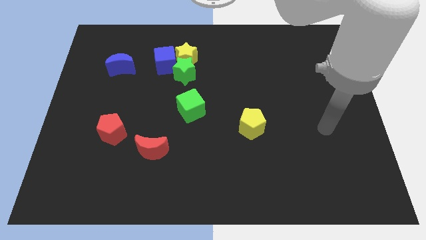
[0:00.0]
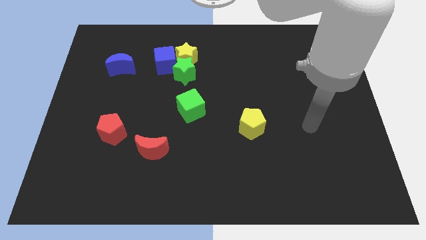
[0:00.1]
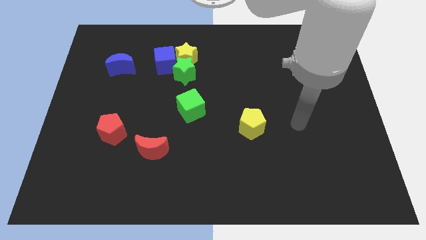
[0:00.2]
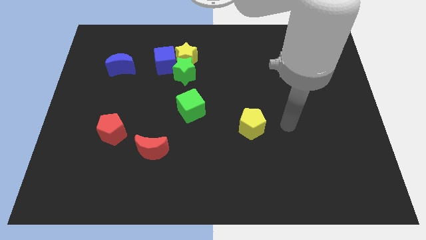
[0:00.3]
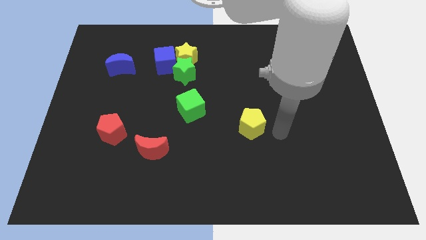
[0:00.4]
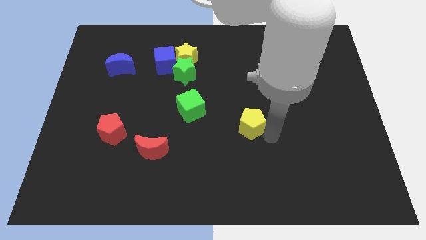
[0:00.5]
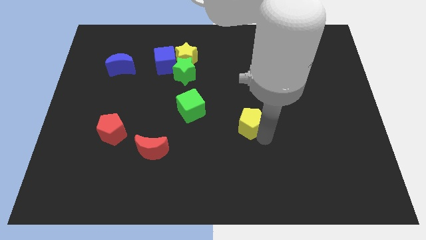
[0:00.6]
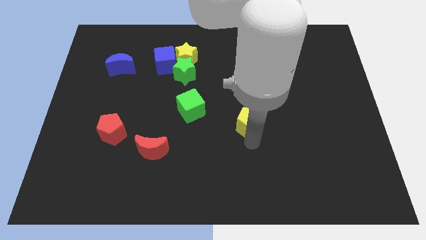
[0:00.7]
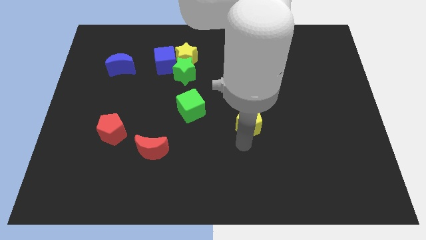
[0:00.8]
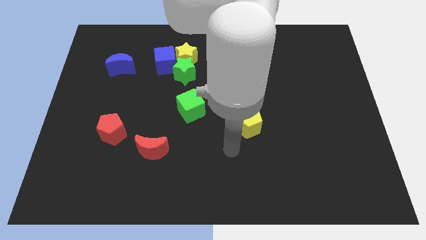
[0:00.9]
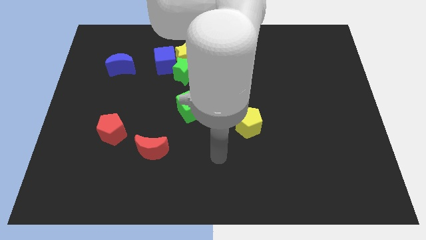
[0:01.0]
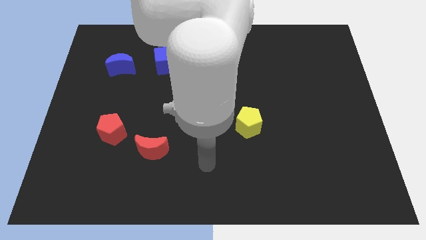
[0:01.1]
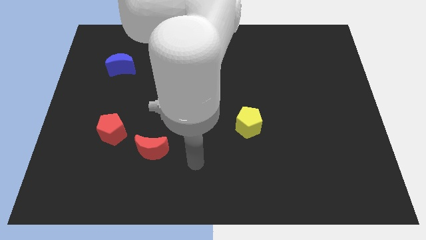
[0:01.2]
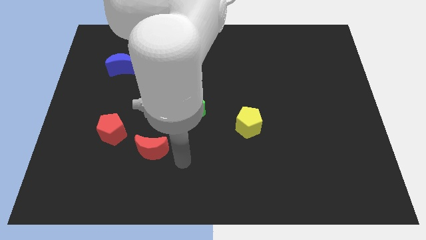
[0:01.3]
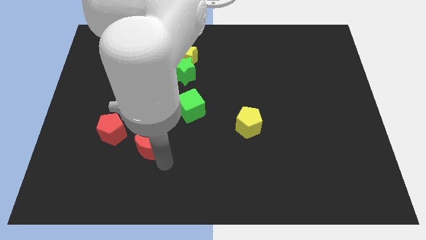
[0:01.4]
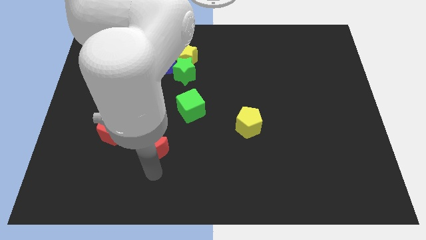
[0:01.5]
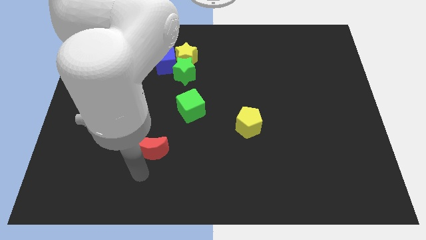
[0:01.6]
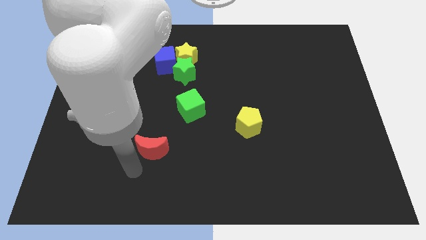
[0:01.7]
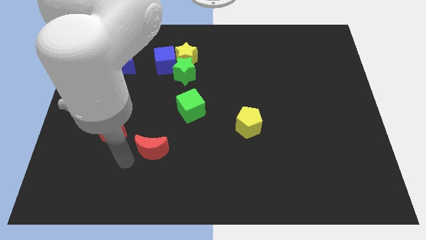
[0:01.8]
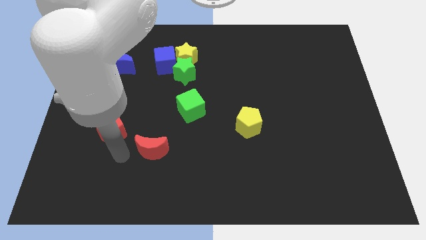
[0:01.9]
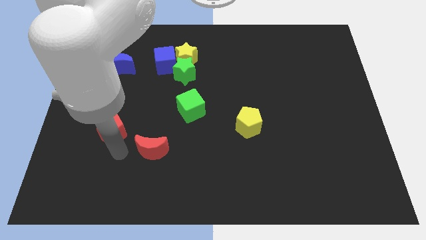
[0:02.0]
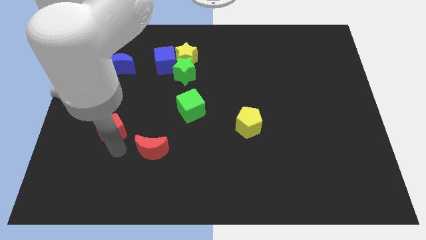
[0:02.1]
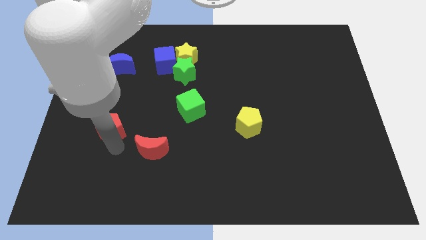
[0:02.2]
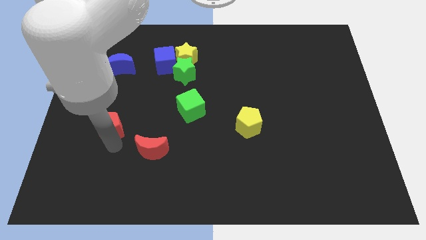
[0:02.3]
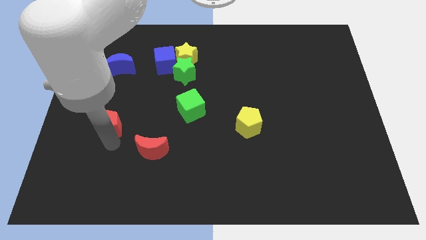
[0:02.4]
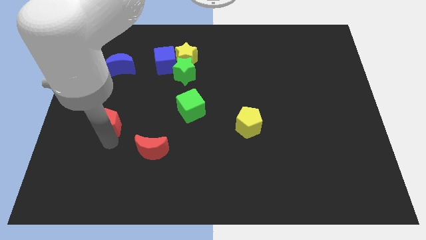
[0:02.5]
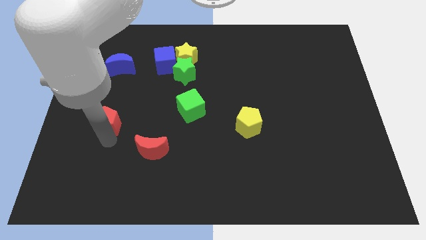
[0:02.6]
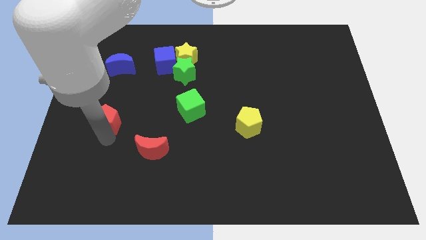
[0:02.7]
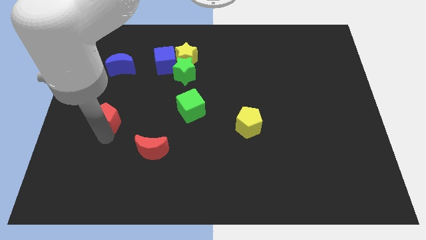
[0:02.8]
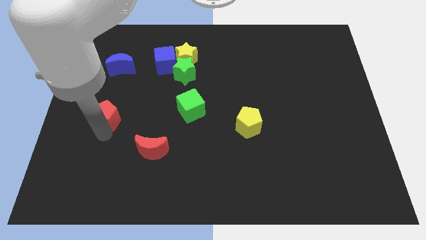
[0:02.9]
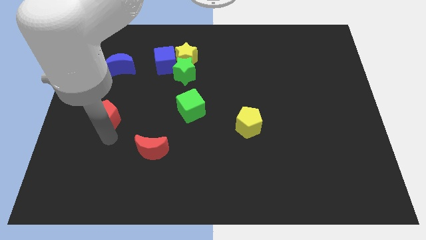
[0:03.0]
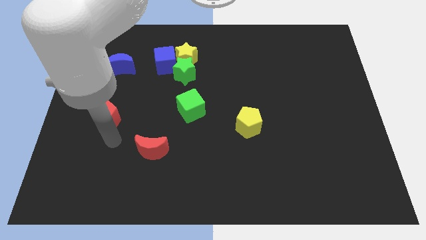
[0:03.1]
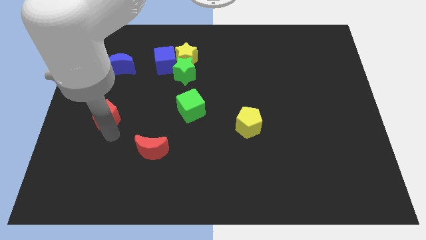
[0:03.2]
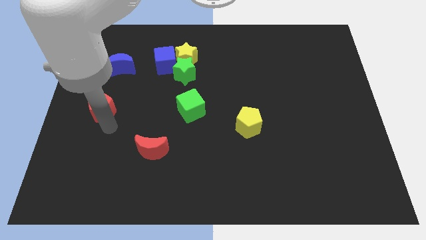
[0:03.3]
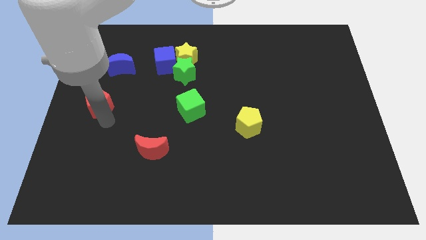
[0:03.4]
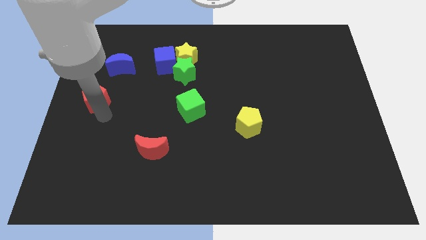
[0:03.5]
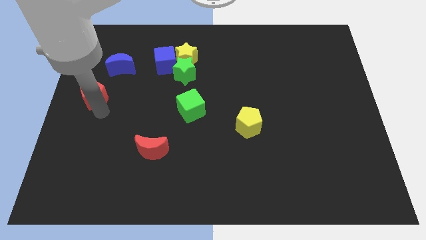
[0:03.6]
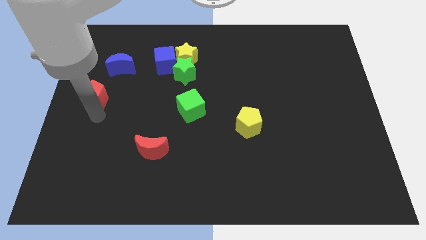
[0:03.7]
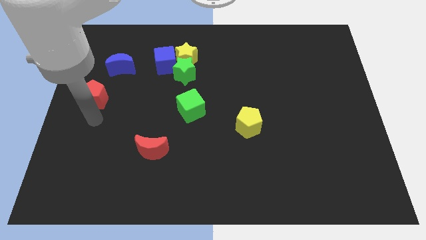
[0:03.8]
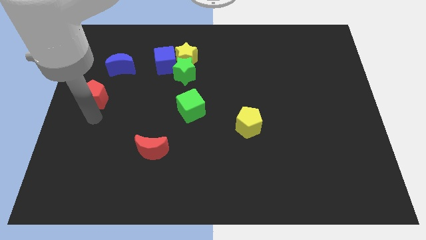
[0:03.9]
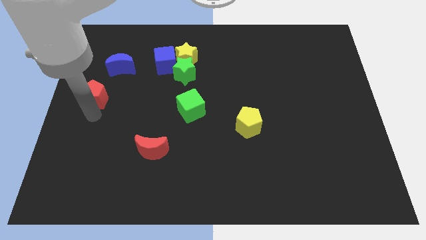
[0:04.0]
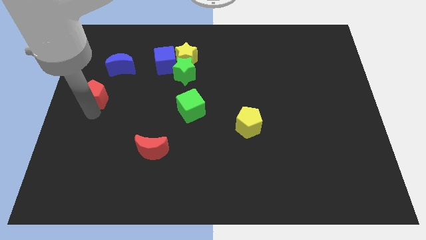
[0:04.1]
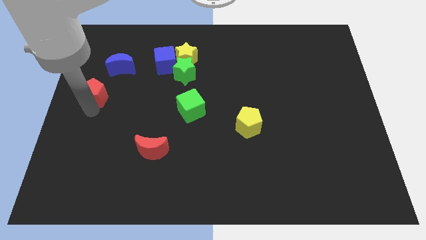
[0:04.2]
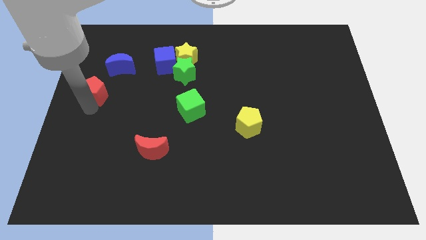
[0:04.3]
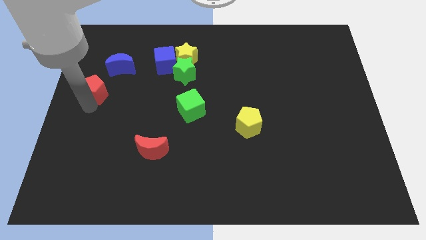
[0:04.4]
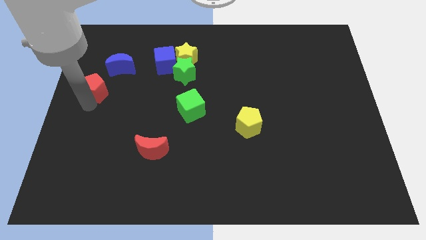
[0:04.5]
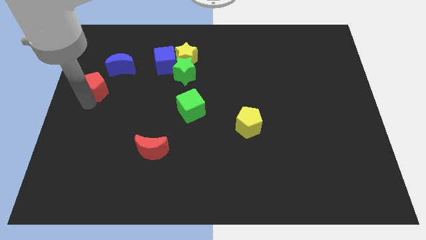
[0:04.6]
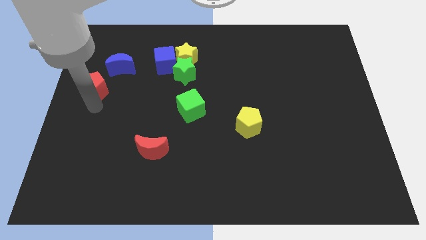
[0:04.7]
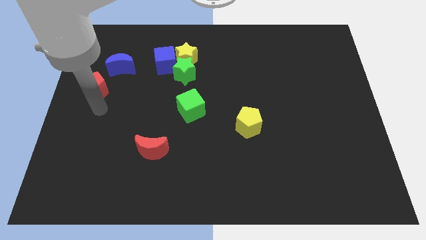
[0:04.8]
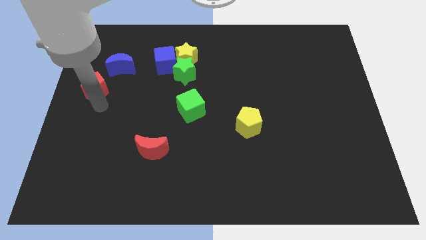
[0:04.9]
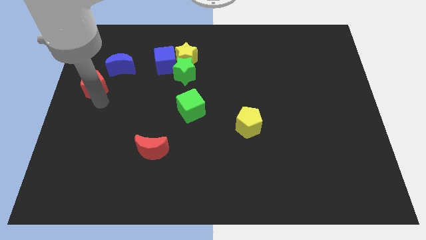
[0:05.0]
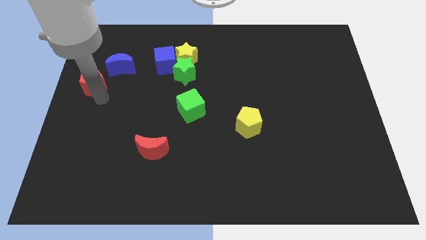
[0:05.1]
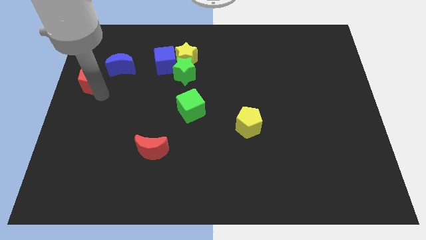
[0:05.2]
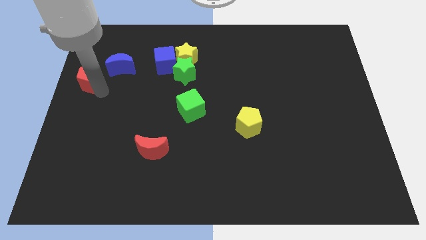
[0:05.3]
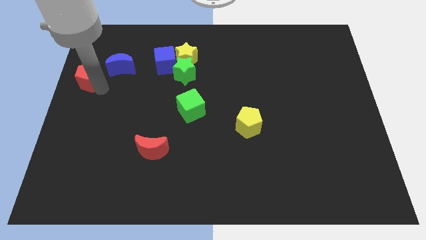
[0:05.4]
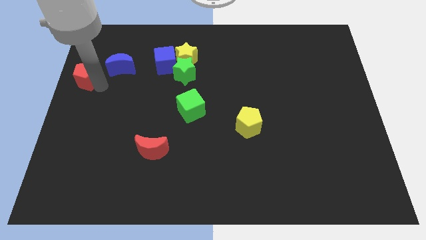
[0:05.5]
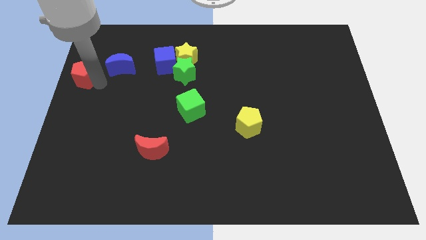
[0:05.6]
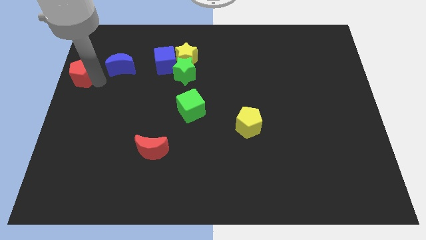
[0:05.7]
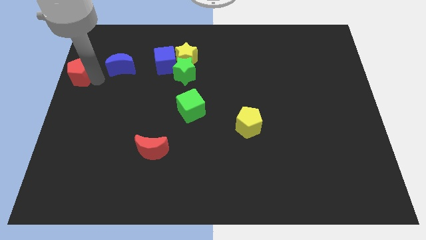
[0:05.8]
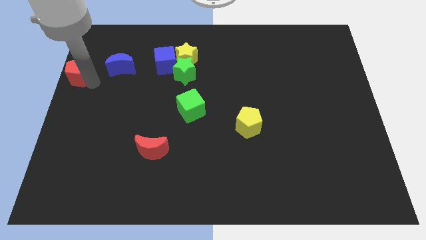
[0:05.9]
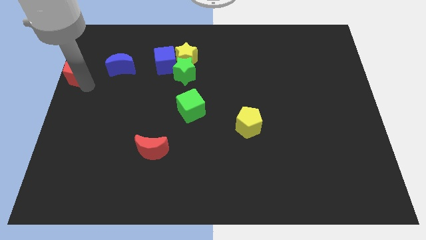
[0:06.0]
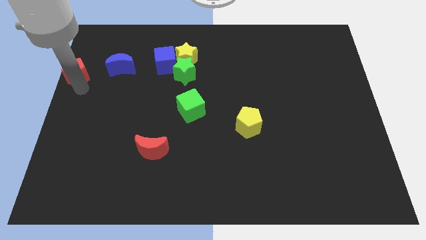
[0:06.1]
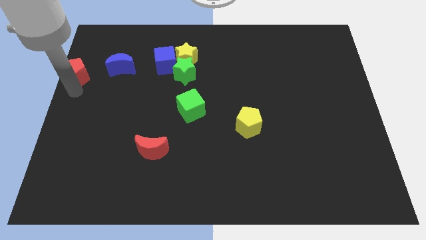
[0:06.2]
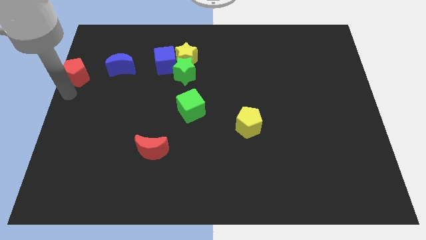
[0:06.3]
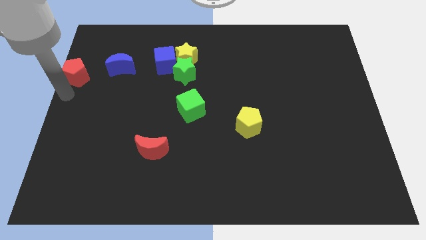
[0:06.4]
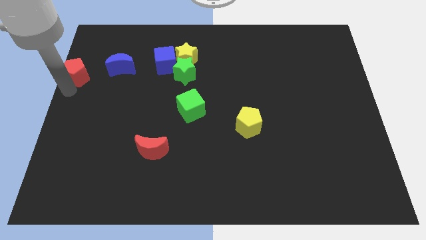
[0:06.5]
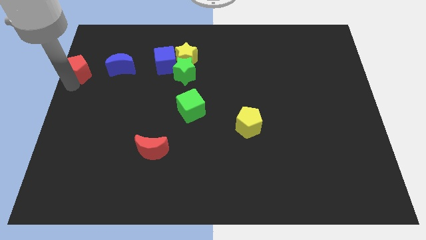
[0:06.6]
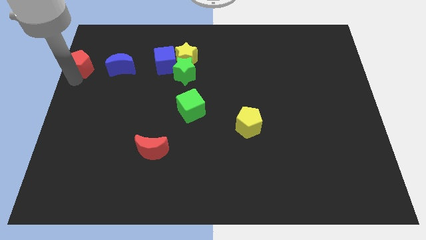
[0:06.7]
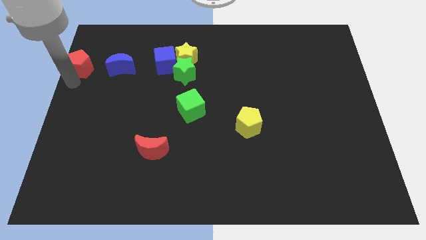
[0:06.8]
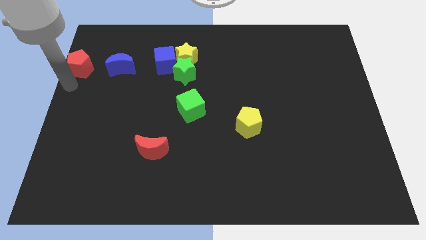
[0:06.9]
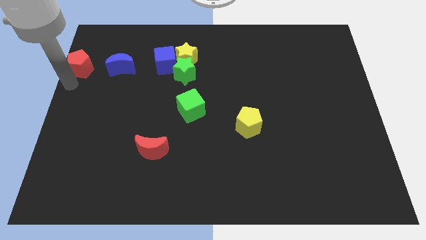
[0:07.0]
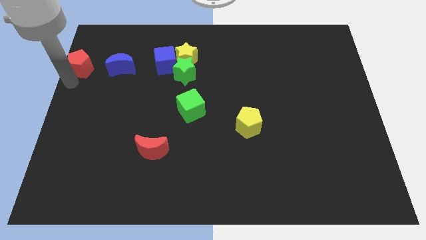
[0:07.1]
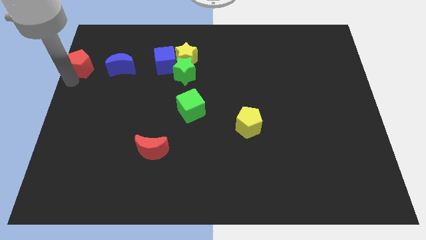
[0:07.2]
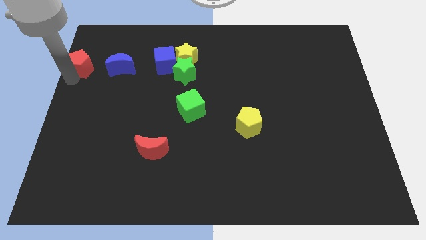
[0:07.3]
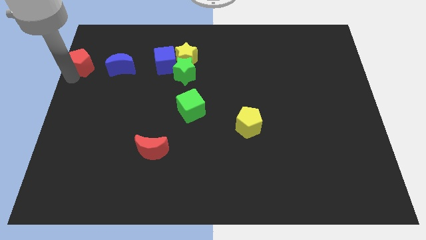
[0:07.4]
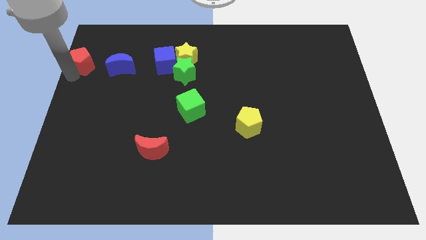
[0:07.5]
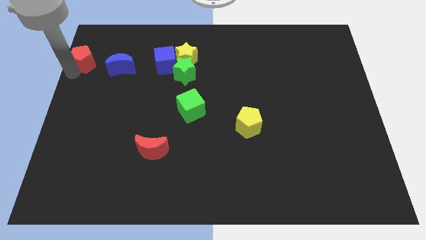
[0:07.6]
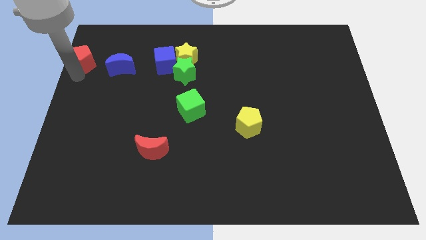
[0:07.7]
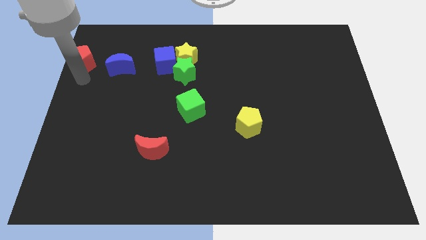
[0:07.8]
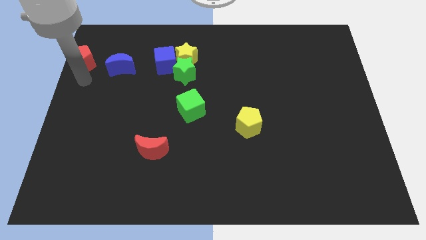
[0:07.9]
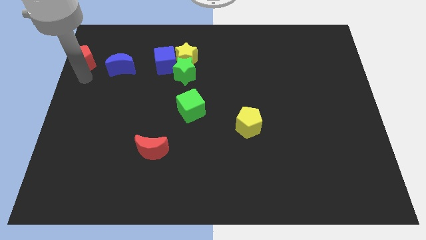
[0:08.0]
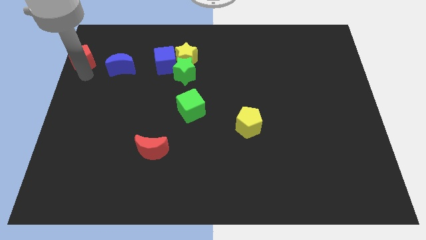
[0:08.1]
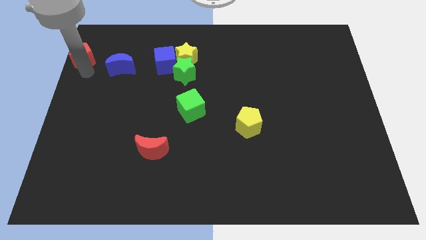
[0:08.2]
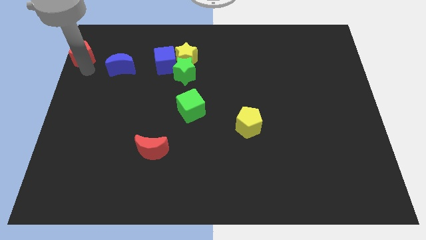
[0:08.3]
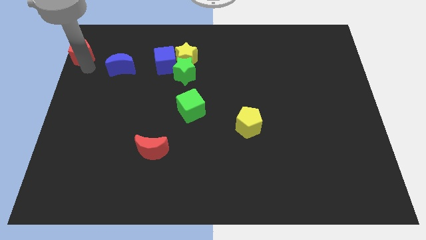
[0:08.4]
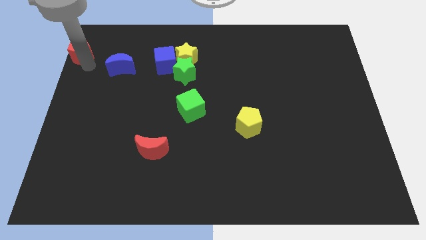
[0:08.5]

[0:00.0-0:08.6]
slide the red pentagon to the top left corner
